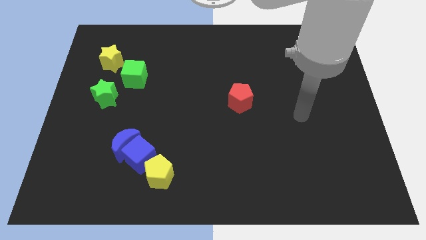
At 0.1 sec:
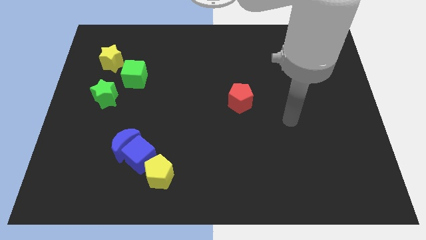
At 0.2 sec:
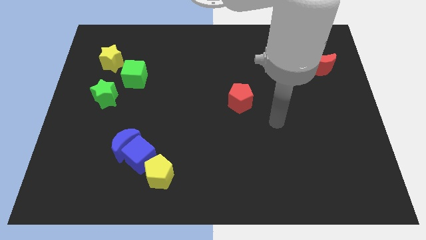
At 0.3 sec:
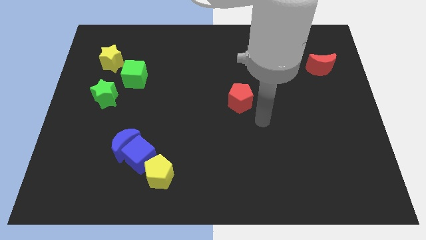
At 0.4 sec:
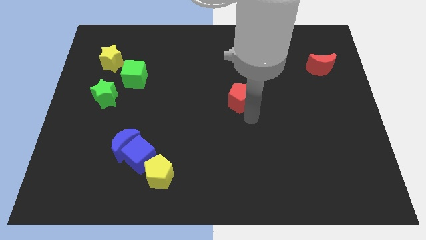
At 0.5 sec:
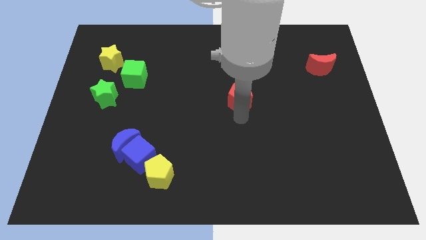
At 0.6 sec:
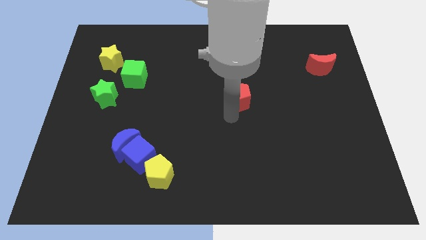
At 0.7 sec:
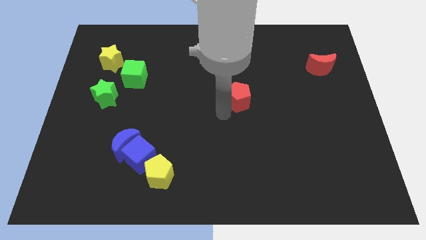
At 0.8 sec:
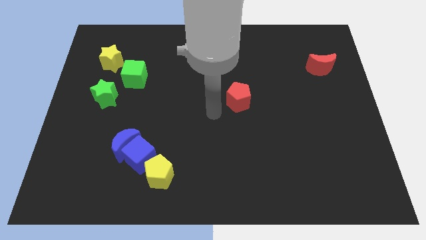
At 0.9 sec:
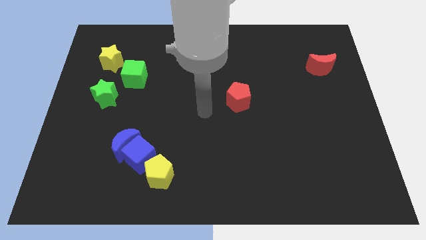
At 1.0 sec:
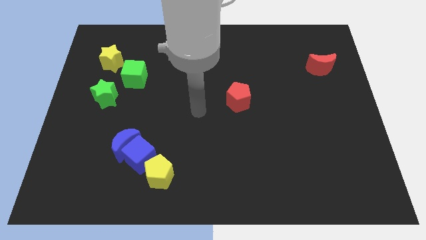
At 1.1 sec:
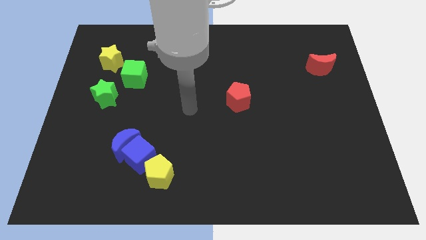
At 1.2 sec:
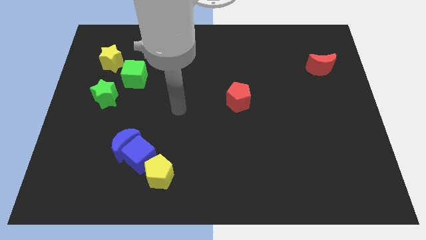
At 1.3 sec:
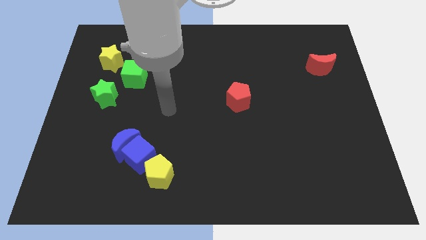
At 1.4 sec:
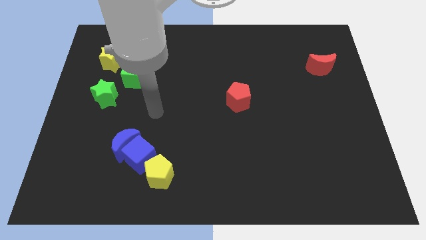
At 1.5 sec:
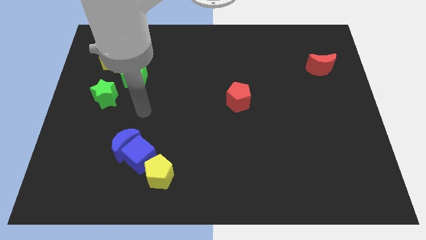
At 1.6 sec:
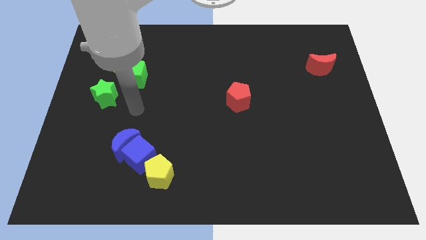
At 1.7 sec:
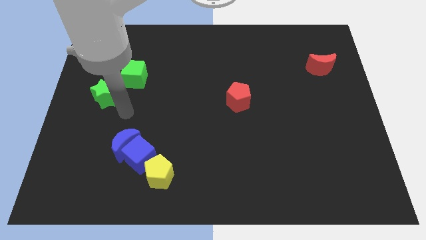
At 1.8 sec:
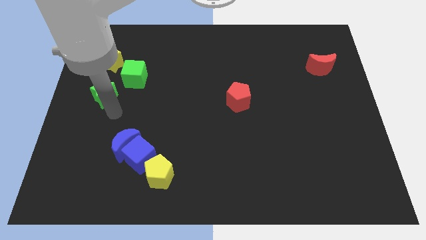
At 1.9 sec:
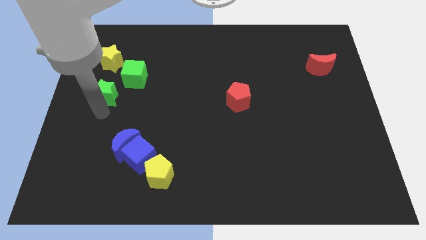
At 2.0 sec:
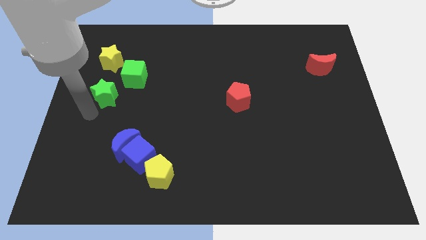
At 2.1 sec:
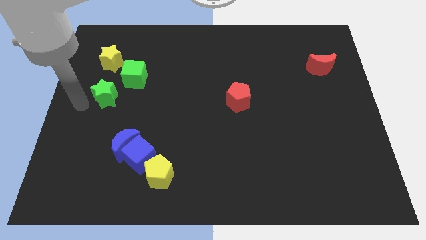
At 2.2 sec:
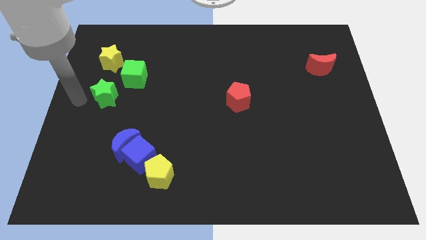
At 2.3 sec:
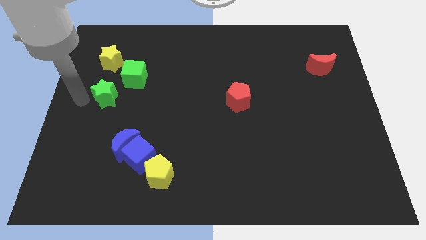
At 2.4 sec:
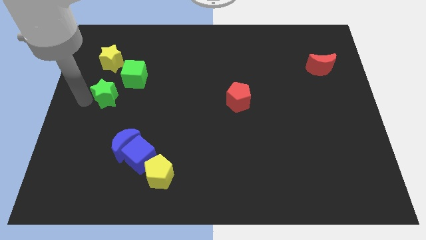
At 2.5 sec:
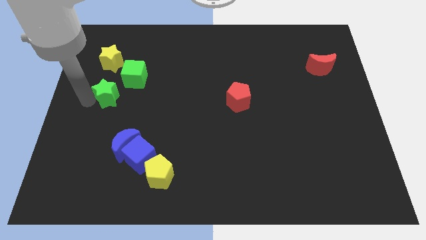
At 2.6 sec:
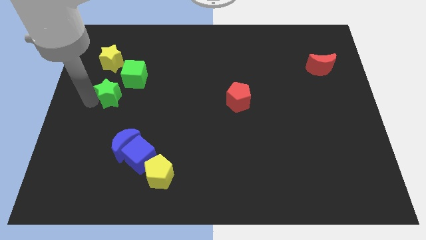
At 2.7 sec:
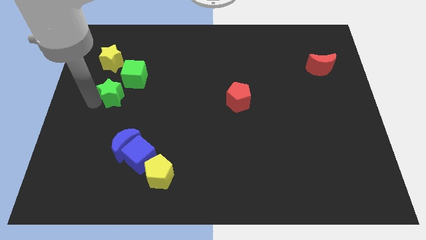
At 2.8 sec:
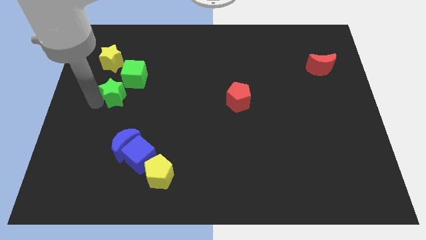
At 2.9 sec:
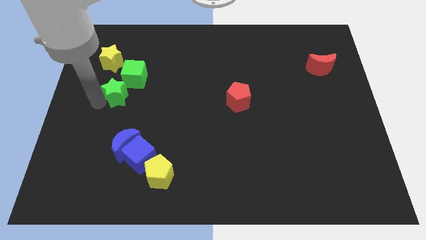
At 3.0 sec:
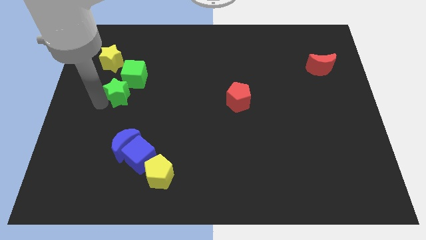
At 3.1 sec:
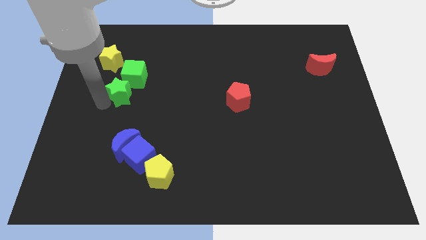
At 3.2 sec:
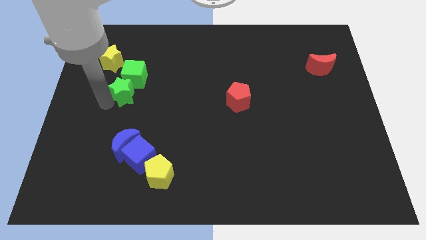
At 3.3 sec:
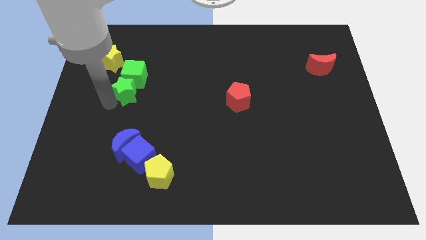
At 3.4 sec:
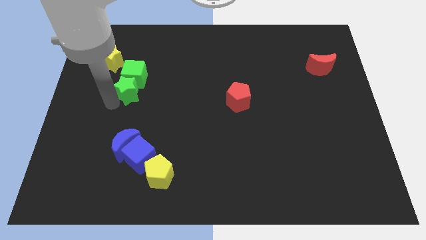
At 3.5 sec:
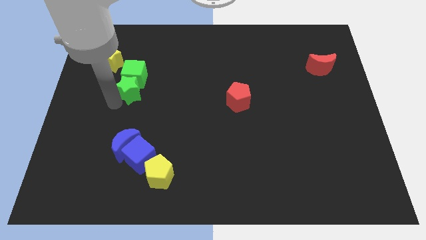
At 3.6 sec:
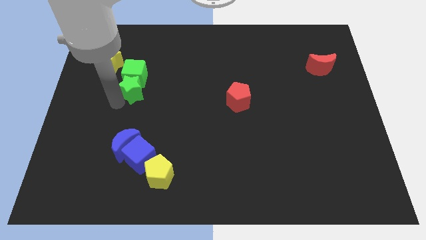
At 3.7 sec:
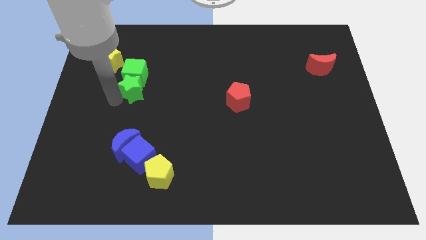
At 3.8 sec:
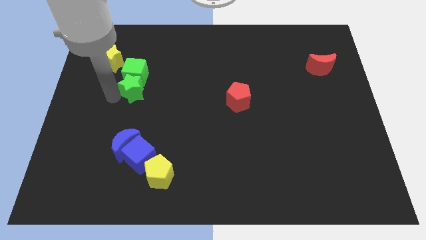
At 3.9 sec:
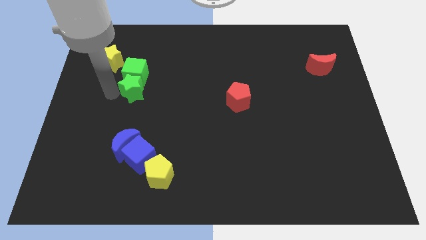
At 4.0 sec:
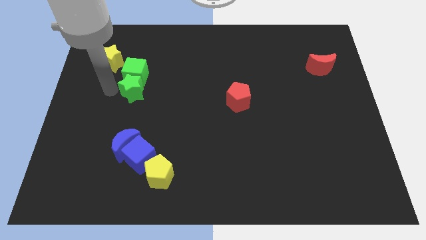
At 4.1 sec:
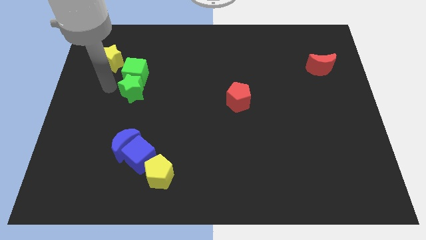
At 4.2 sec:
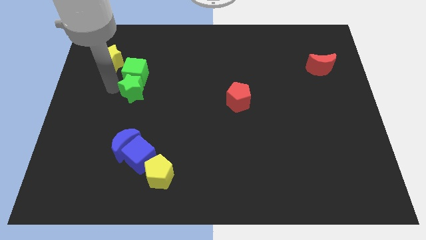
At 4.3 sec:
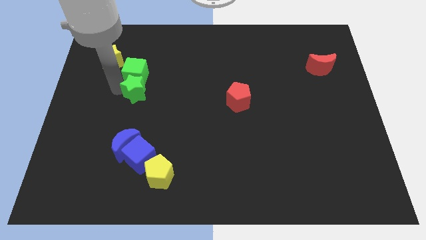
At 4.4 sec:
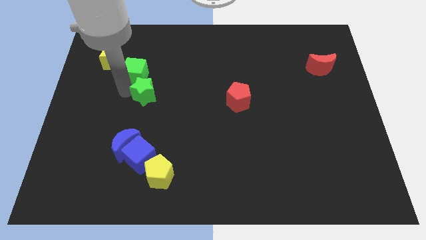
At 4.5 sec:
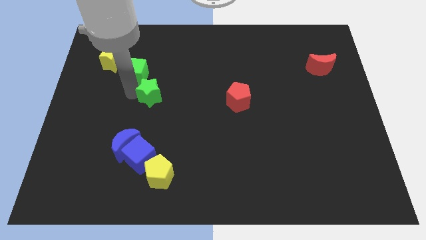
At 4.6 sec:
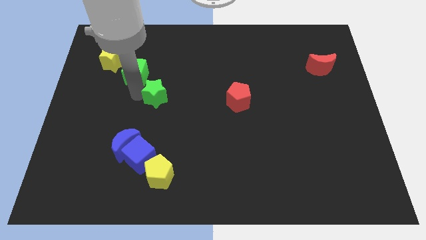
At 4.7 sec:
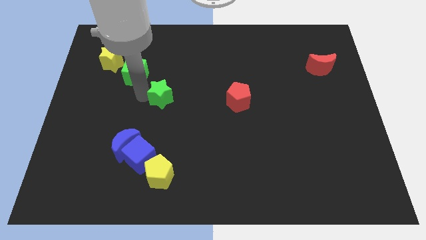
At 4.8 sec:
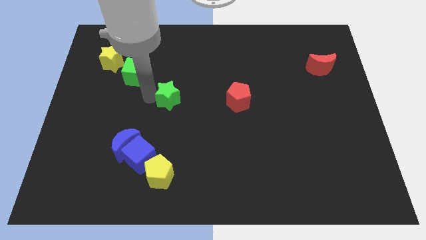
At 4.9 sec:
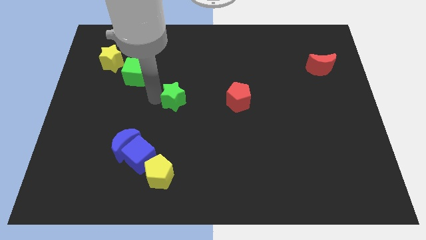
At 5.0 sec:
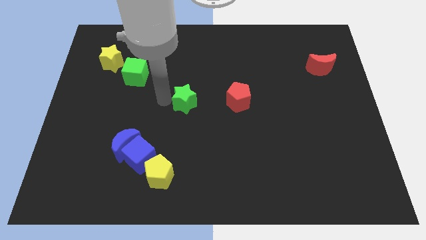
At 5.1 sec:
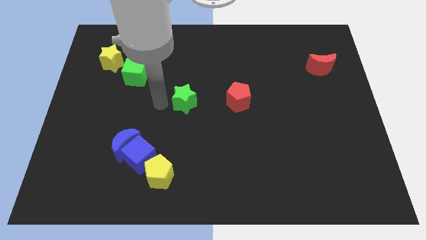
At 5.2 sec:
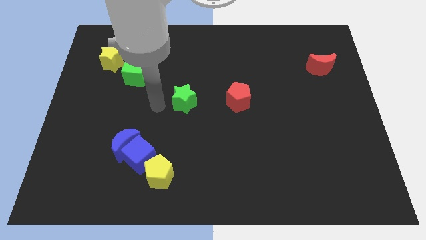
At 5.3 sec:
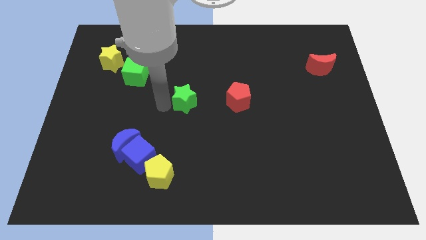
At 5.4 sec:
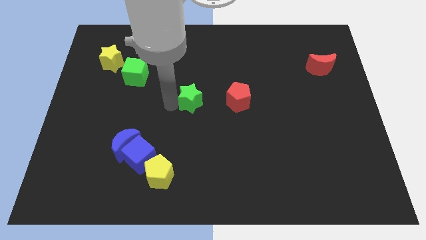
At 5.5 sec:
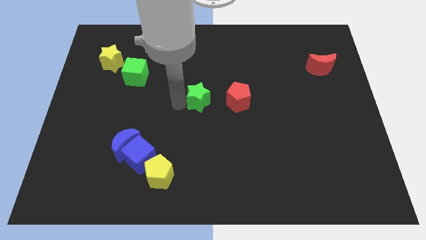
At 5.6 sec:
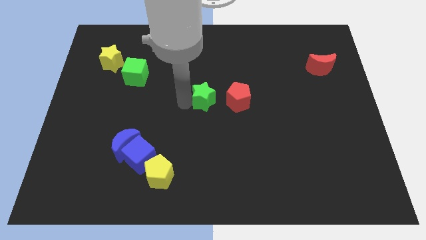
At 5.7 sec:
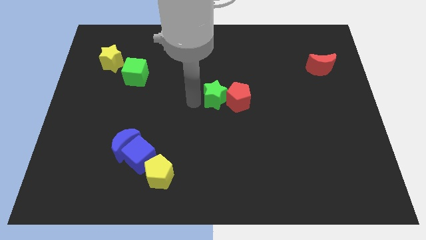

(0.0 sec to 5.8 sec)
put the green star next to the red pentagon
